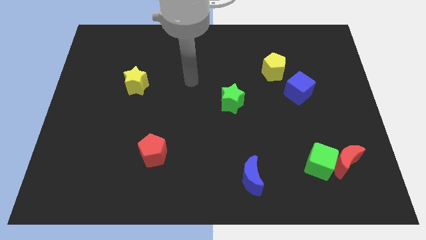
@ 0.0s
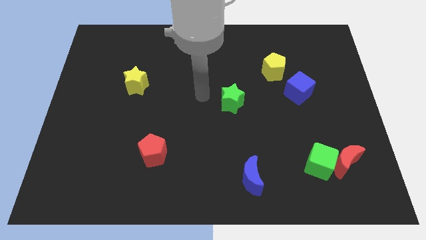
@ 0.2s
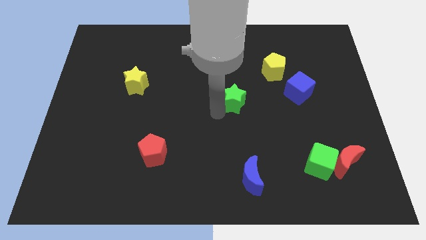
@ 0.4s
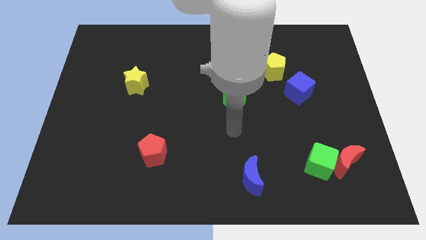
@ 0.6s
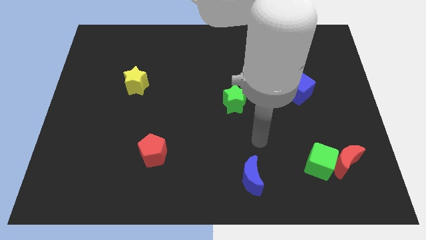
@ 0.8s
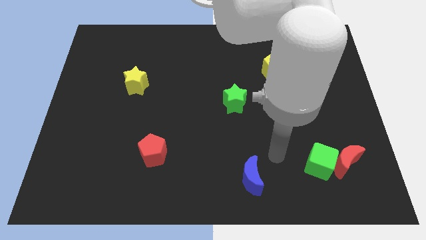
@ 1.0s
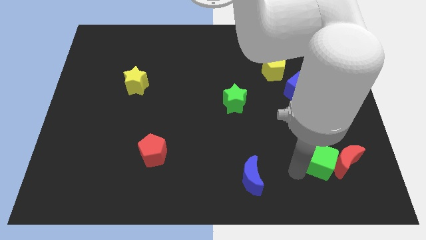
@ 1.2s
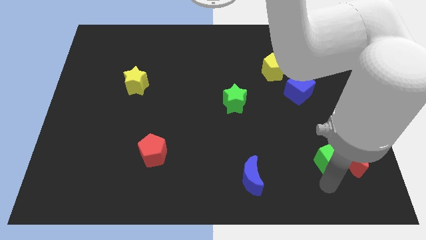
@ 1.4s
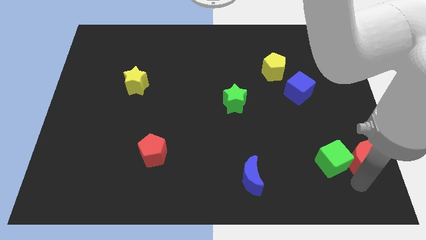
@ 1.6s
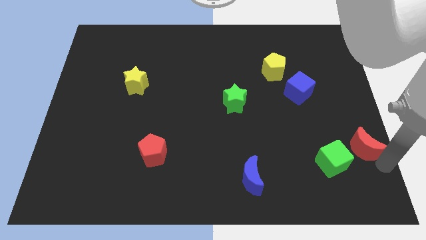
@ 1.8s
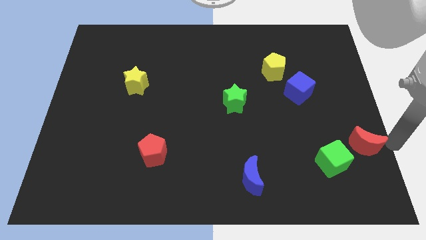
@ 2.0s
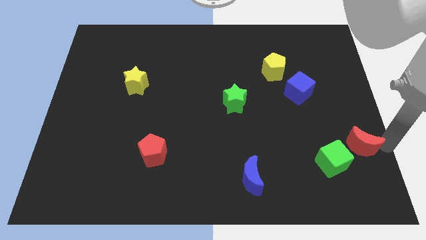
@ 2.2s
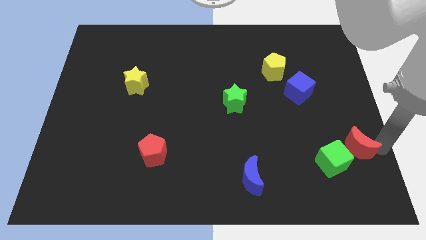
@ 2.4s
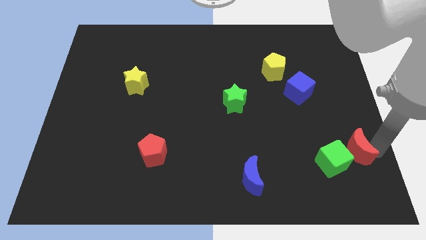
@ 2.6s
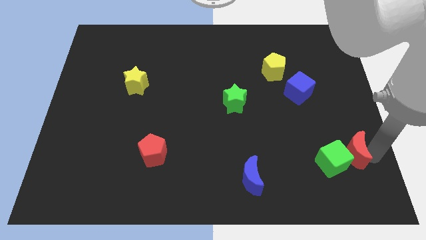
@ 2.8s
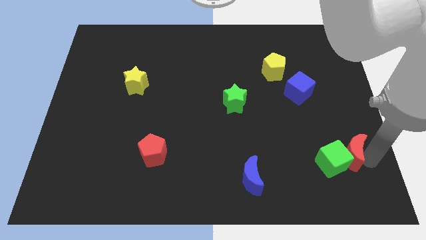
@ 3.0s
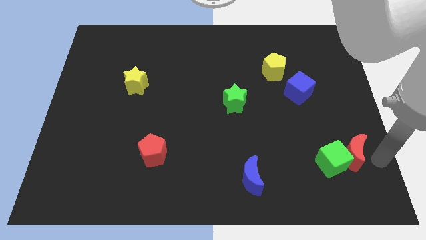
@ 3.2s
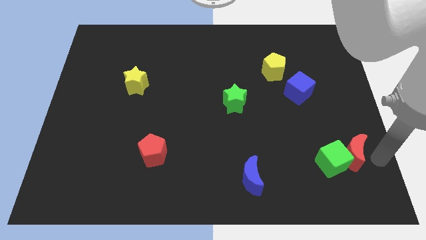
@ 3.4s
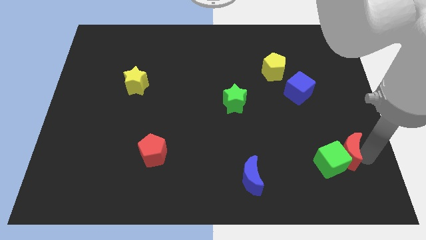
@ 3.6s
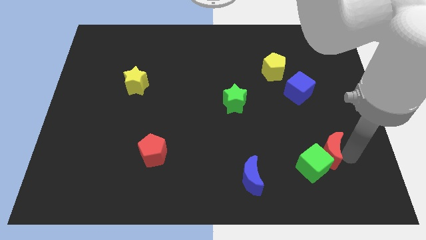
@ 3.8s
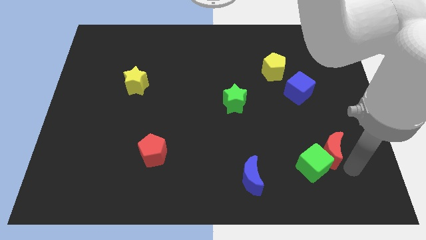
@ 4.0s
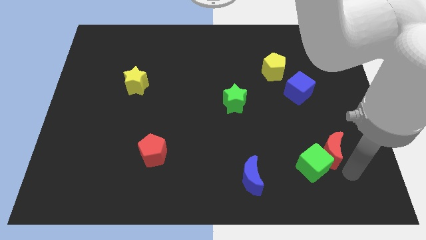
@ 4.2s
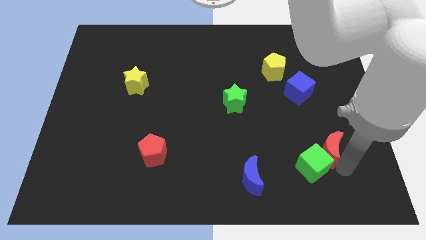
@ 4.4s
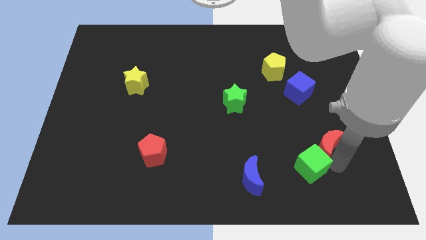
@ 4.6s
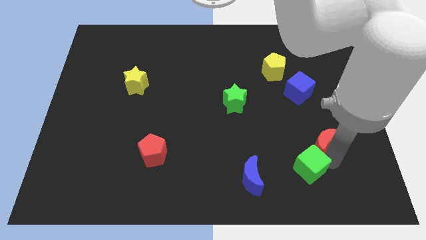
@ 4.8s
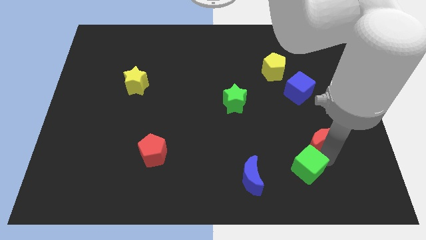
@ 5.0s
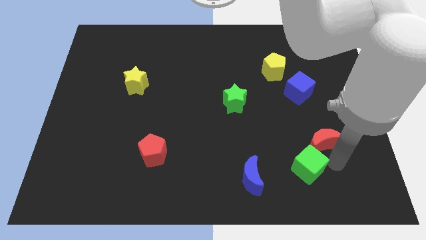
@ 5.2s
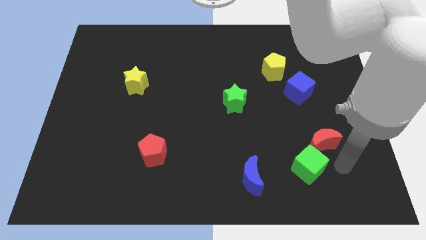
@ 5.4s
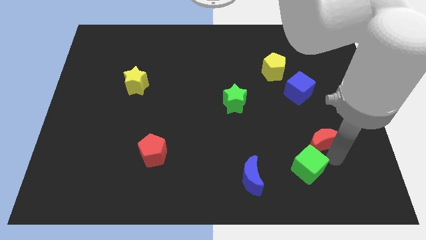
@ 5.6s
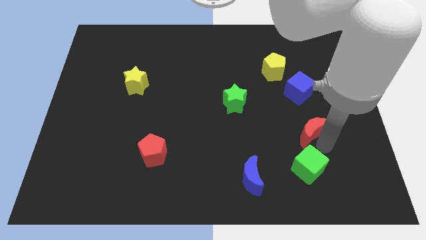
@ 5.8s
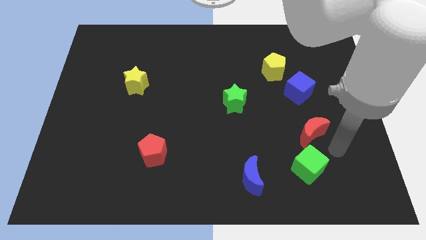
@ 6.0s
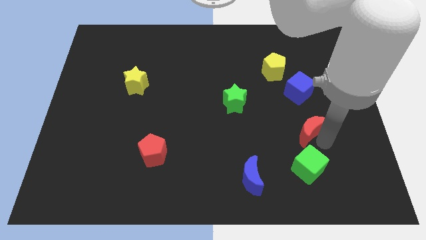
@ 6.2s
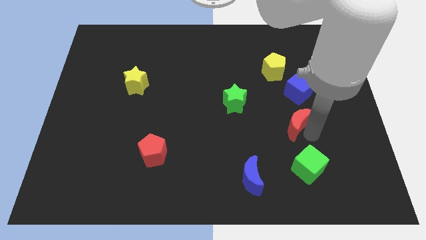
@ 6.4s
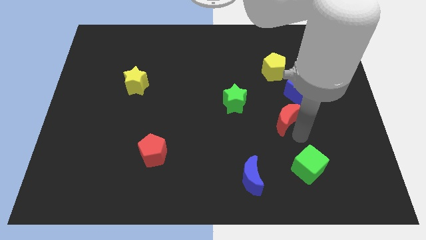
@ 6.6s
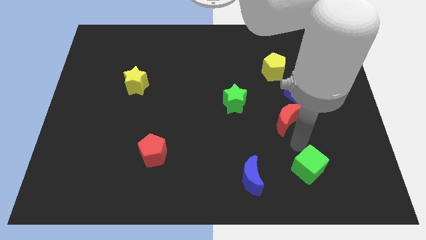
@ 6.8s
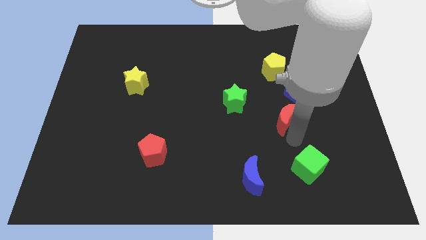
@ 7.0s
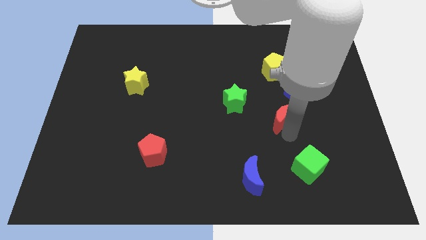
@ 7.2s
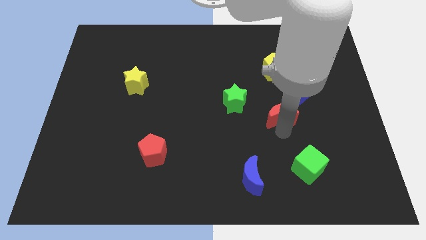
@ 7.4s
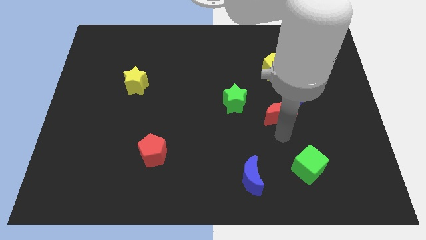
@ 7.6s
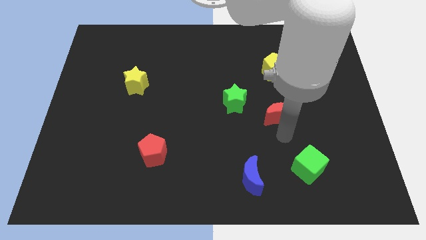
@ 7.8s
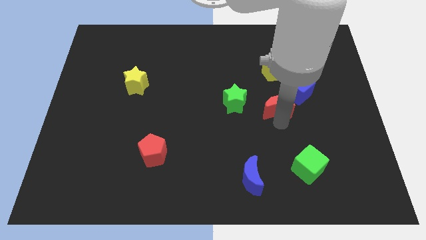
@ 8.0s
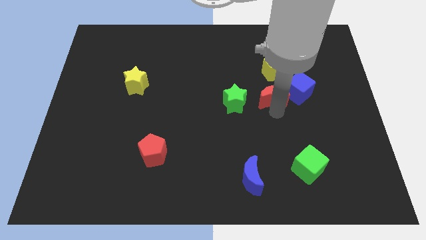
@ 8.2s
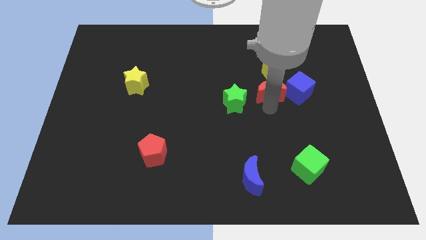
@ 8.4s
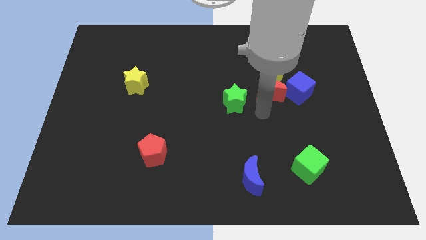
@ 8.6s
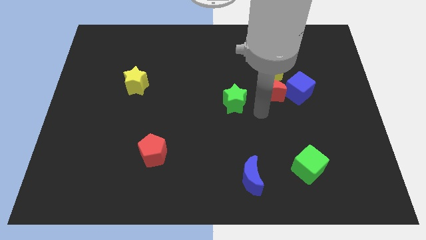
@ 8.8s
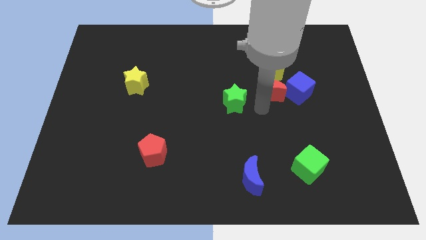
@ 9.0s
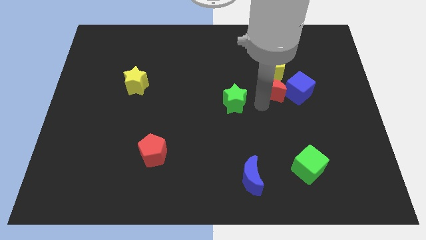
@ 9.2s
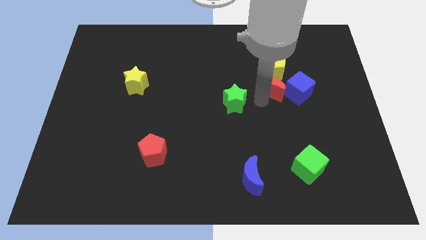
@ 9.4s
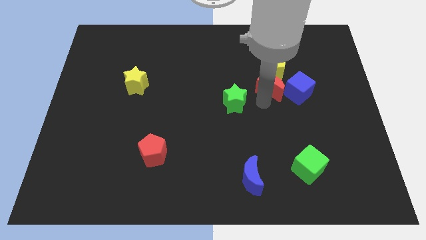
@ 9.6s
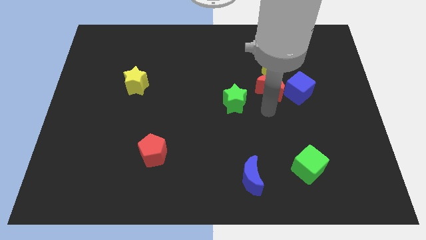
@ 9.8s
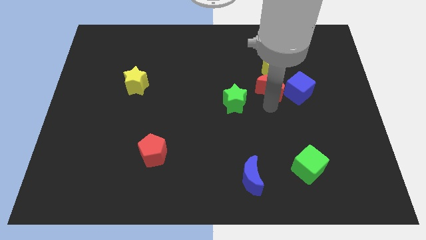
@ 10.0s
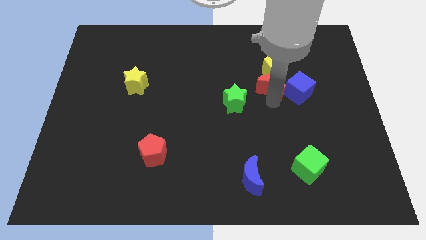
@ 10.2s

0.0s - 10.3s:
put the red moon to the yellow pentagon

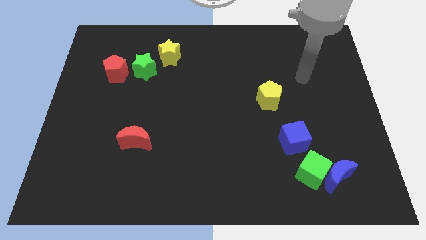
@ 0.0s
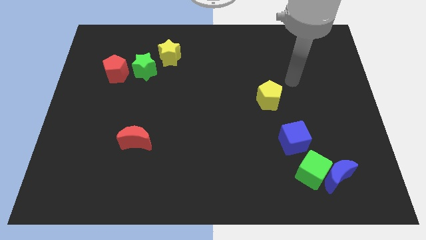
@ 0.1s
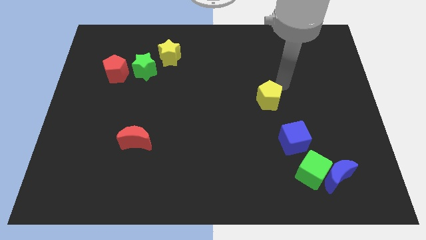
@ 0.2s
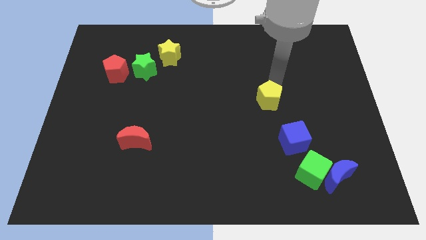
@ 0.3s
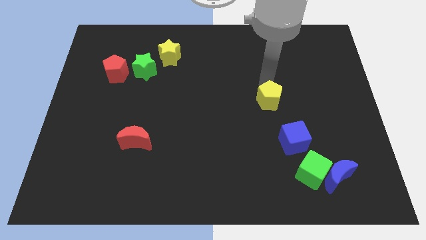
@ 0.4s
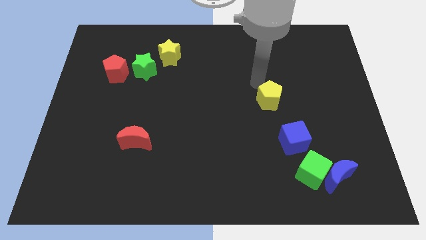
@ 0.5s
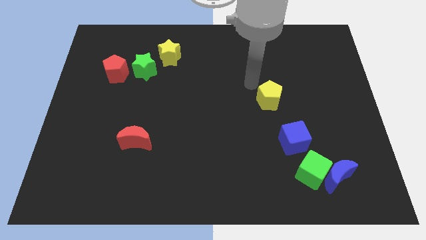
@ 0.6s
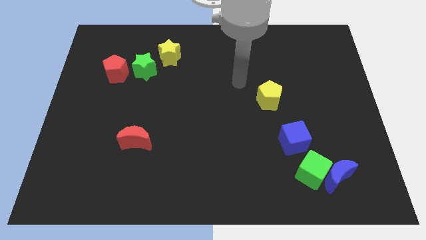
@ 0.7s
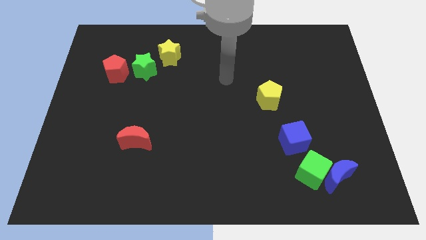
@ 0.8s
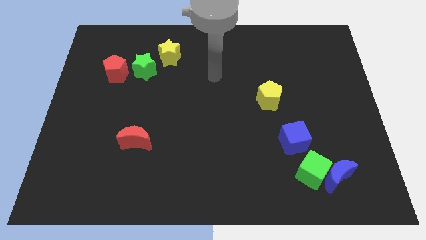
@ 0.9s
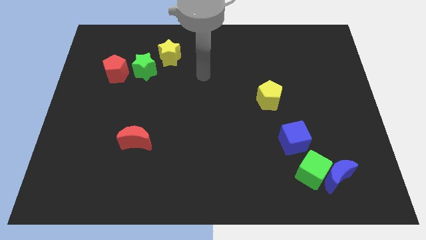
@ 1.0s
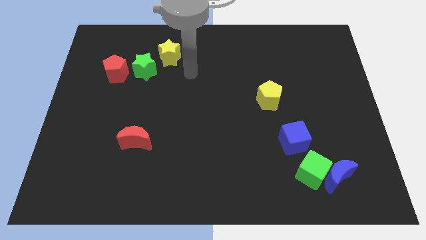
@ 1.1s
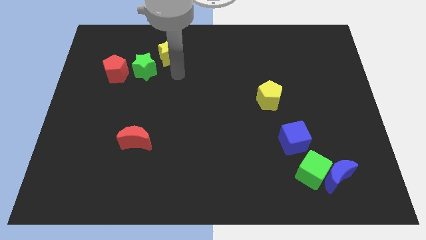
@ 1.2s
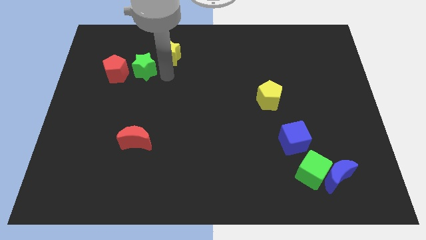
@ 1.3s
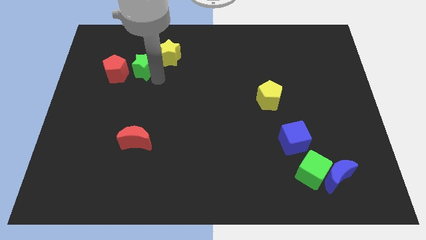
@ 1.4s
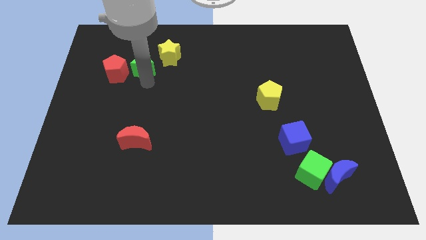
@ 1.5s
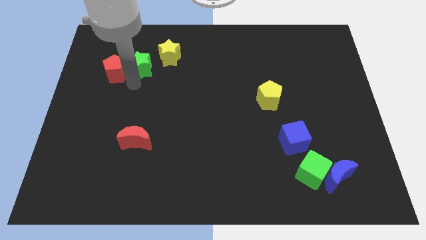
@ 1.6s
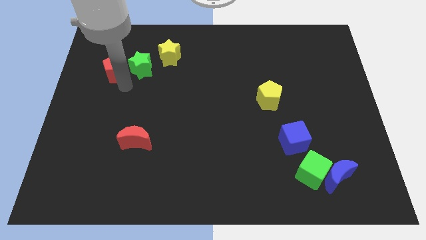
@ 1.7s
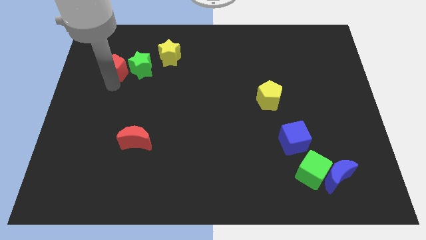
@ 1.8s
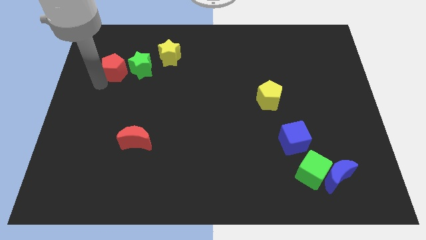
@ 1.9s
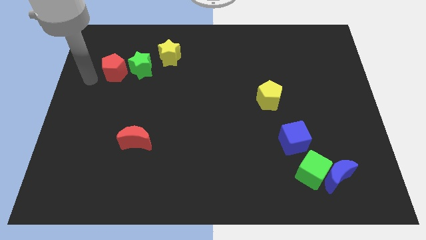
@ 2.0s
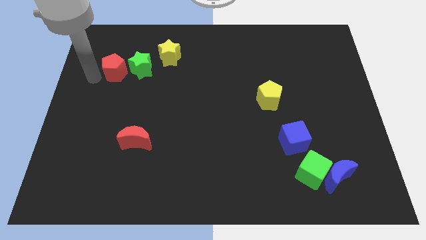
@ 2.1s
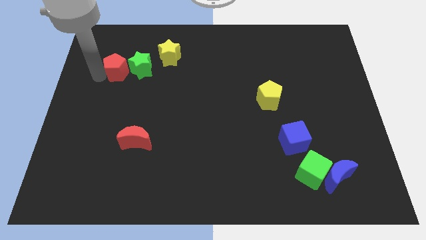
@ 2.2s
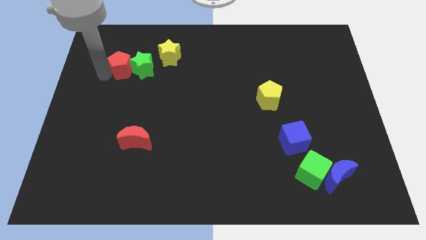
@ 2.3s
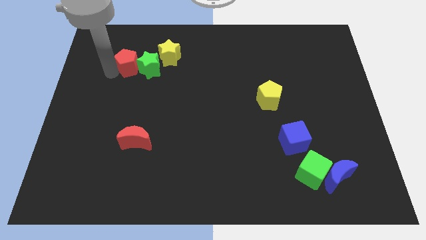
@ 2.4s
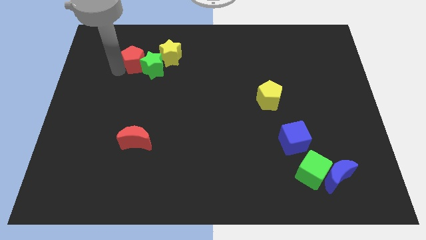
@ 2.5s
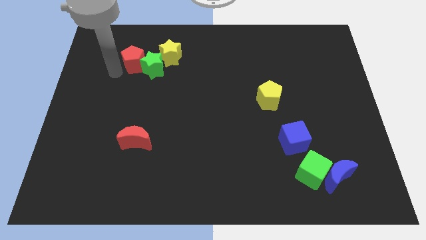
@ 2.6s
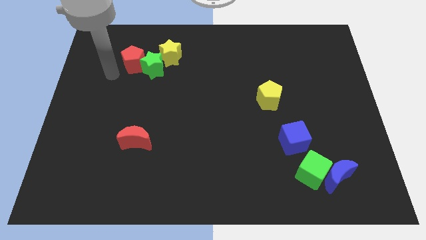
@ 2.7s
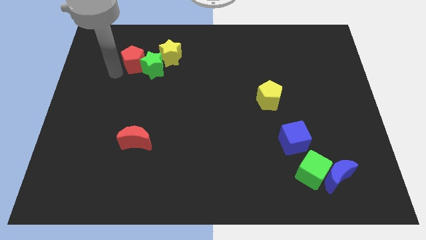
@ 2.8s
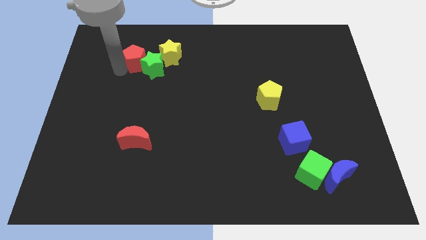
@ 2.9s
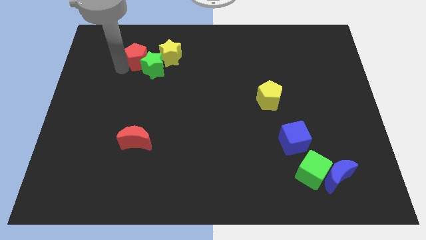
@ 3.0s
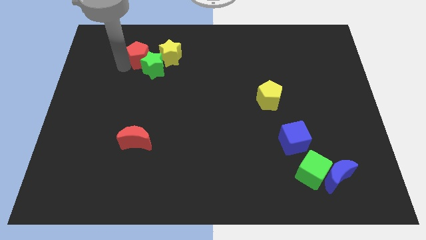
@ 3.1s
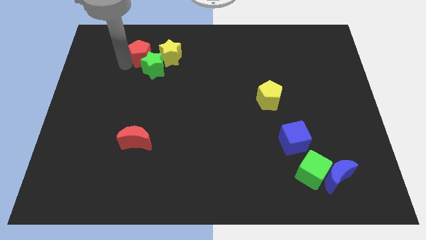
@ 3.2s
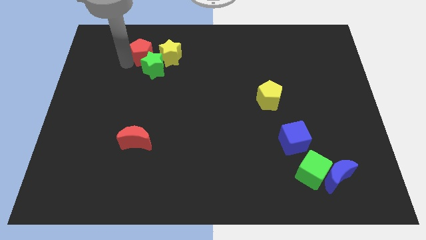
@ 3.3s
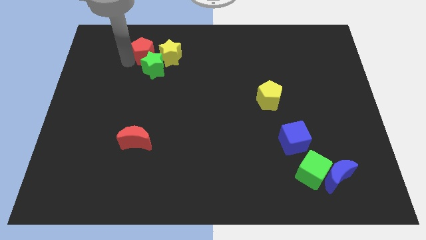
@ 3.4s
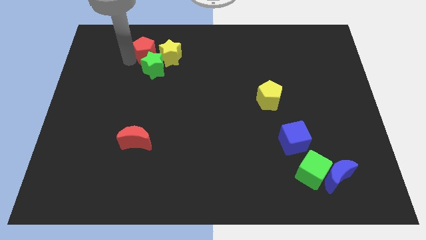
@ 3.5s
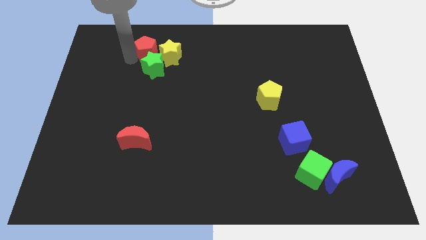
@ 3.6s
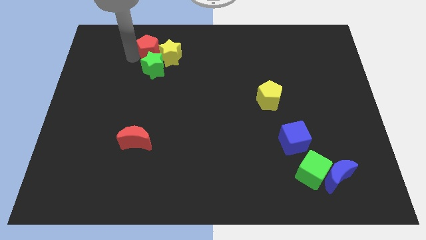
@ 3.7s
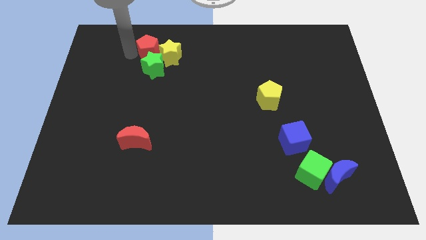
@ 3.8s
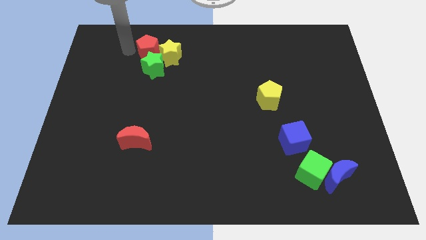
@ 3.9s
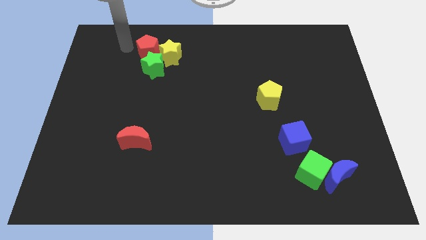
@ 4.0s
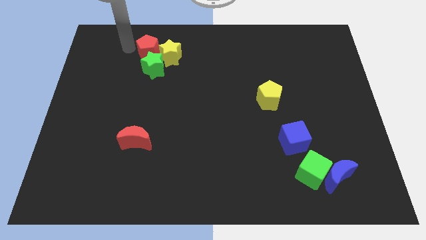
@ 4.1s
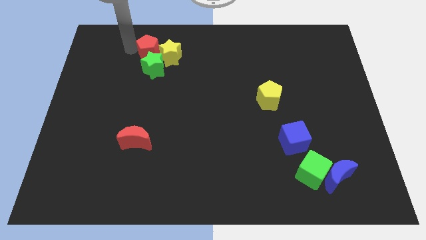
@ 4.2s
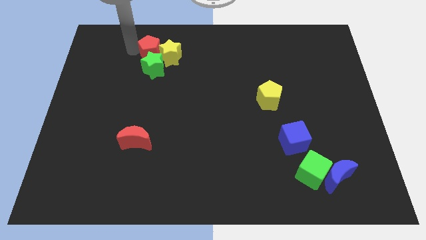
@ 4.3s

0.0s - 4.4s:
push the red pentagon close to the yellow star
